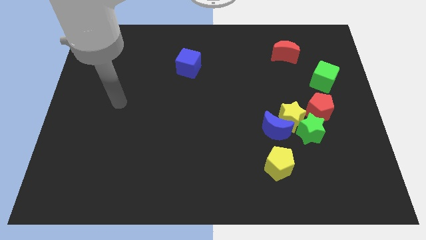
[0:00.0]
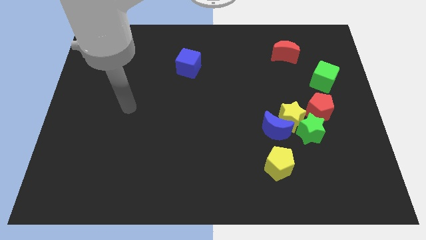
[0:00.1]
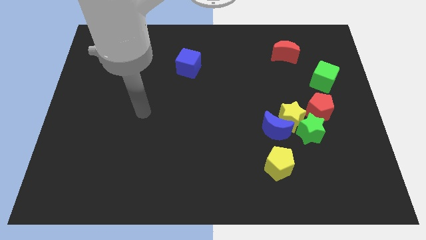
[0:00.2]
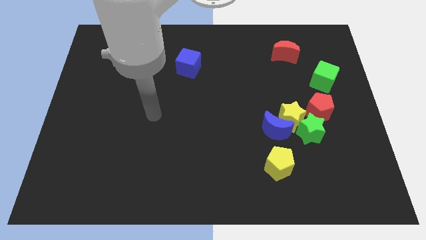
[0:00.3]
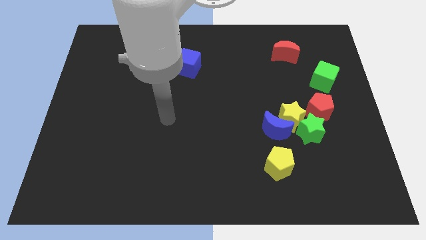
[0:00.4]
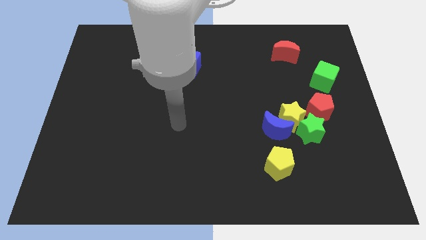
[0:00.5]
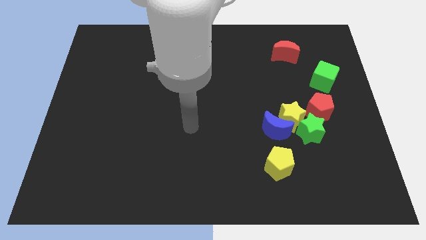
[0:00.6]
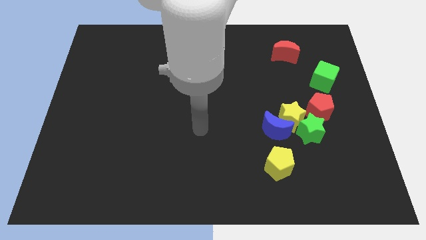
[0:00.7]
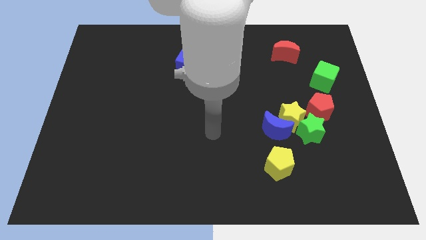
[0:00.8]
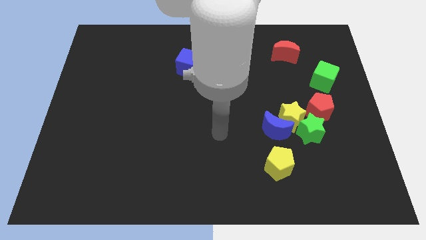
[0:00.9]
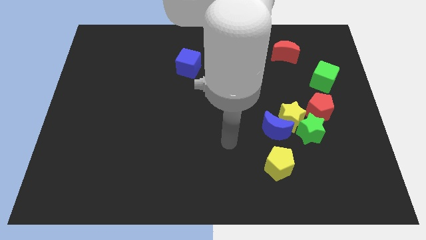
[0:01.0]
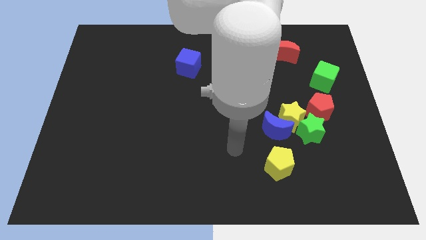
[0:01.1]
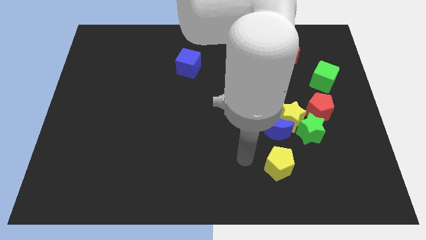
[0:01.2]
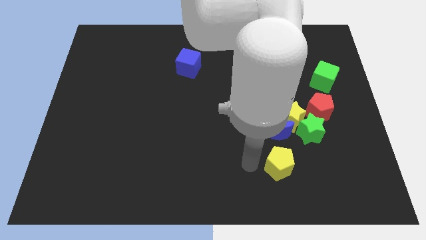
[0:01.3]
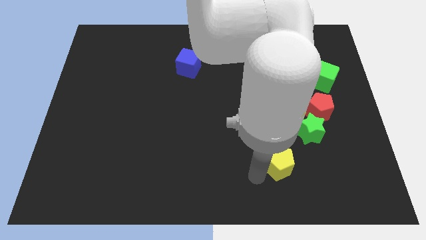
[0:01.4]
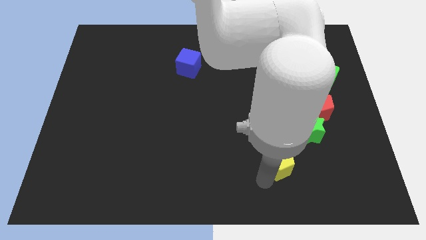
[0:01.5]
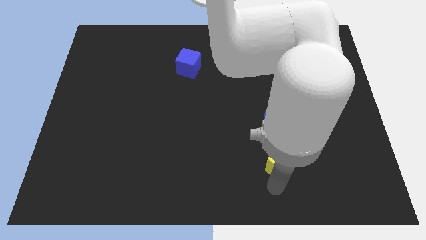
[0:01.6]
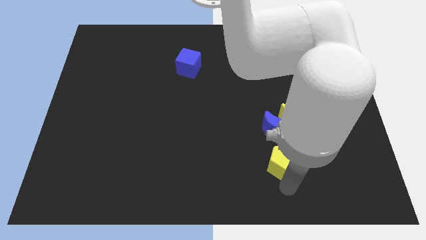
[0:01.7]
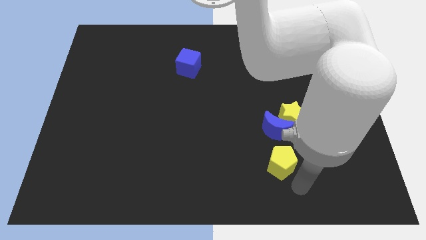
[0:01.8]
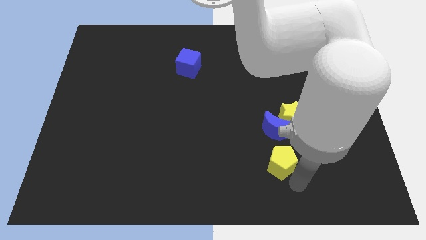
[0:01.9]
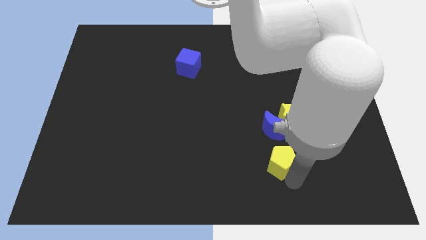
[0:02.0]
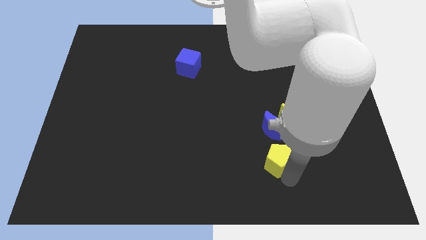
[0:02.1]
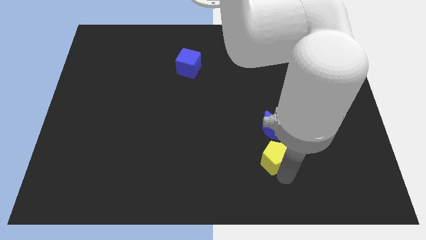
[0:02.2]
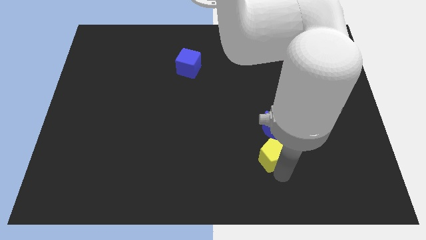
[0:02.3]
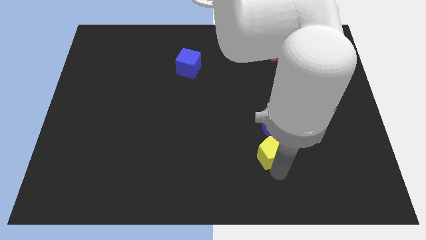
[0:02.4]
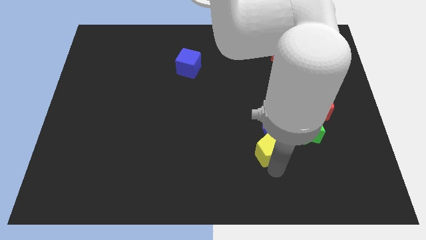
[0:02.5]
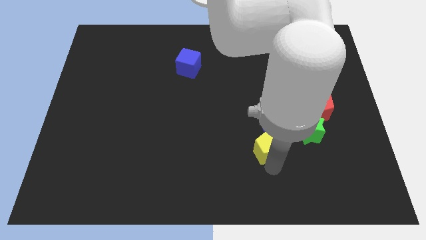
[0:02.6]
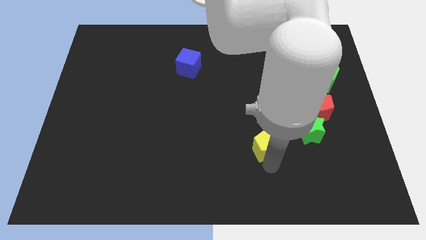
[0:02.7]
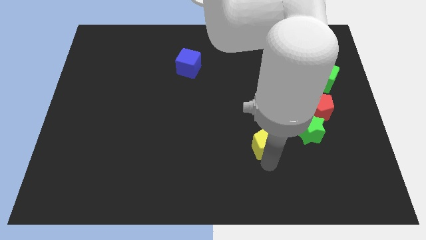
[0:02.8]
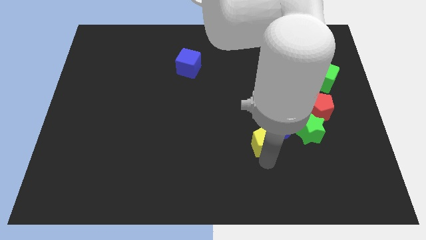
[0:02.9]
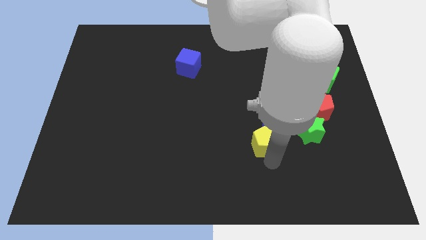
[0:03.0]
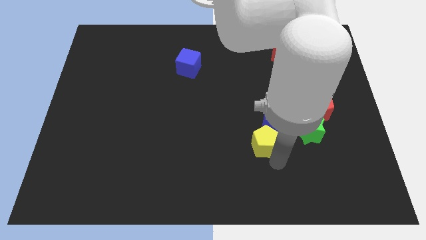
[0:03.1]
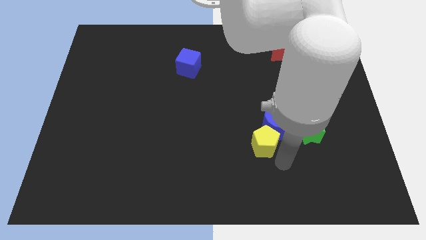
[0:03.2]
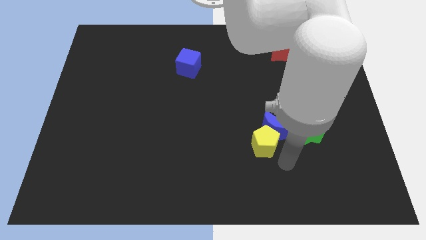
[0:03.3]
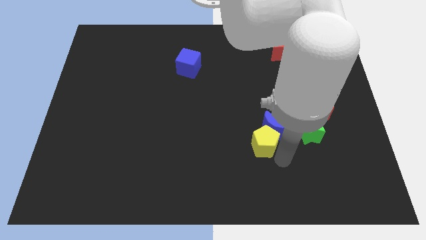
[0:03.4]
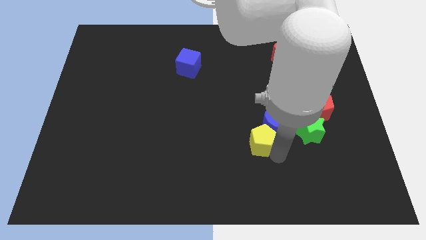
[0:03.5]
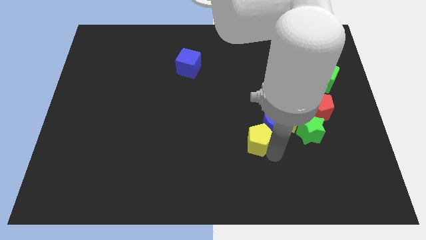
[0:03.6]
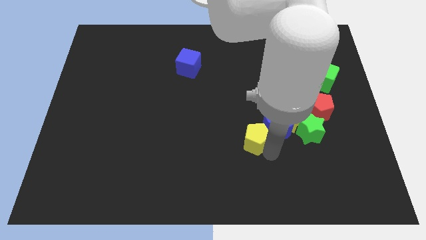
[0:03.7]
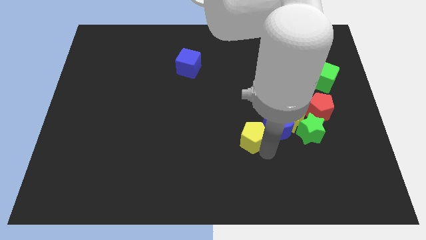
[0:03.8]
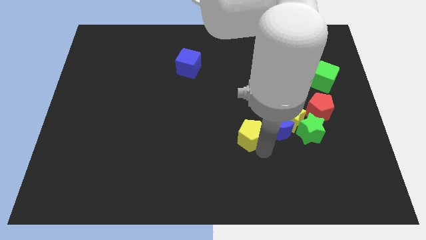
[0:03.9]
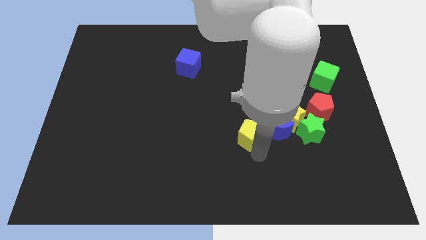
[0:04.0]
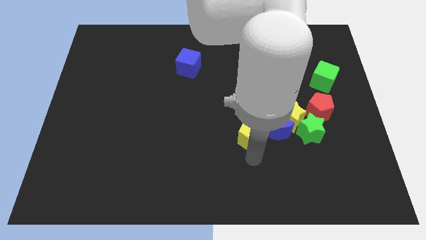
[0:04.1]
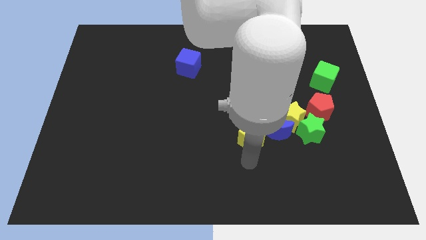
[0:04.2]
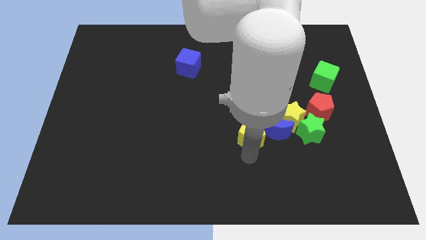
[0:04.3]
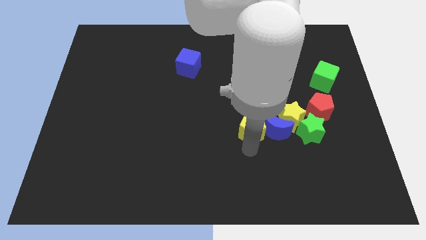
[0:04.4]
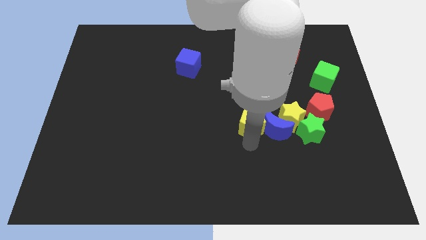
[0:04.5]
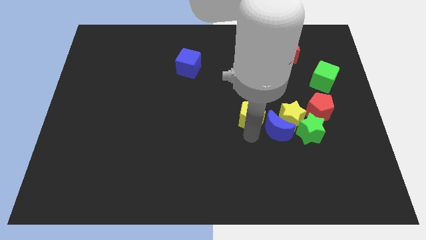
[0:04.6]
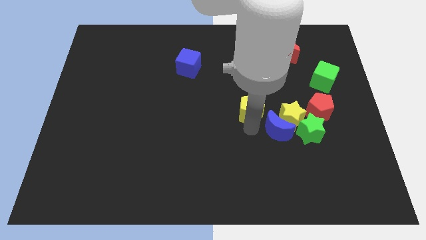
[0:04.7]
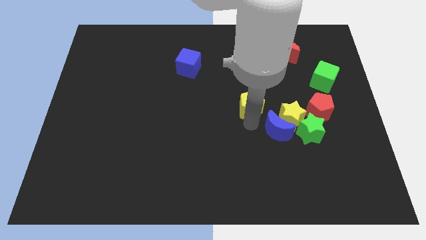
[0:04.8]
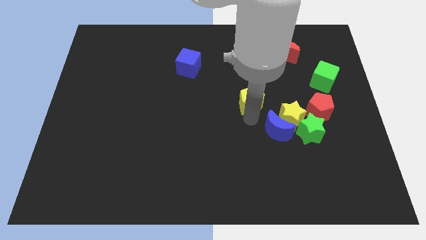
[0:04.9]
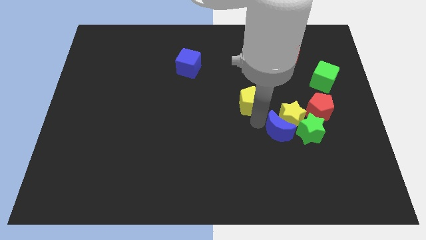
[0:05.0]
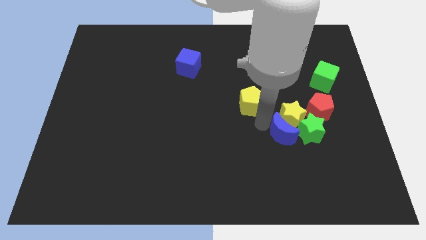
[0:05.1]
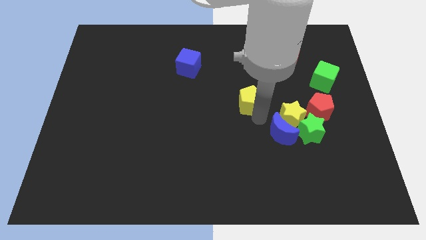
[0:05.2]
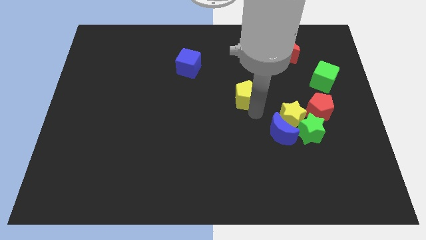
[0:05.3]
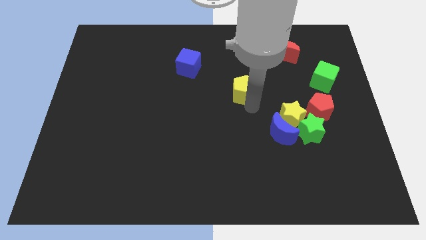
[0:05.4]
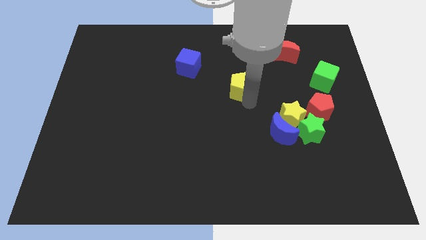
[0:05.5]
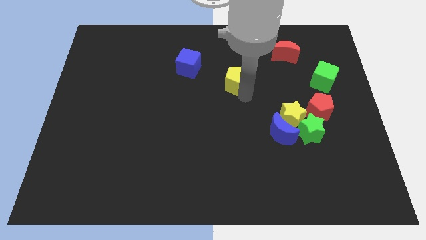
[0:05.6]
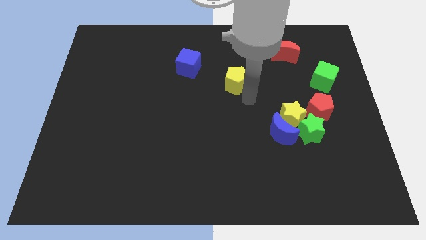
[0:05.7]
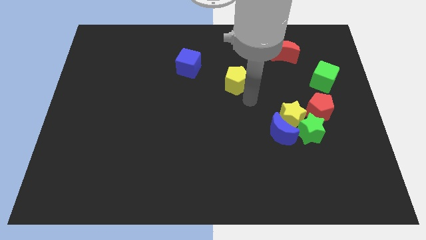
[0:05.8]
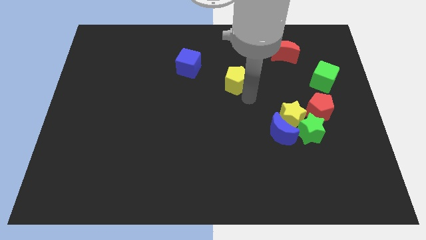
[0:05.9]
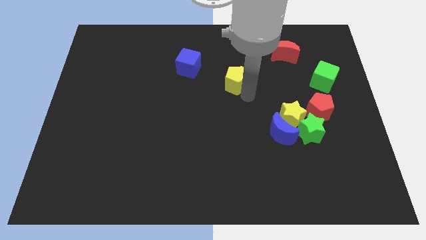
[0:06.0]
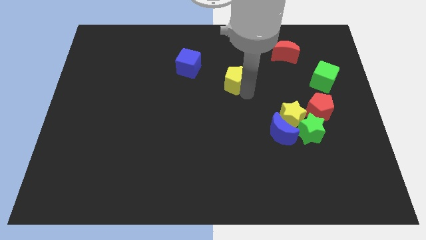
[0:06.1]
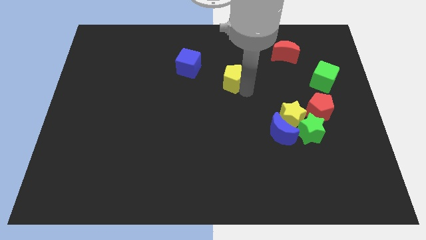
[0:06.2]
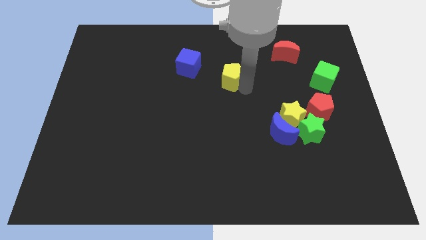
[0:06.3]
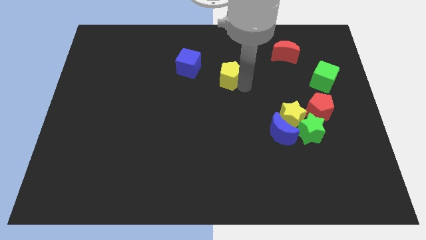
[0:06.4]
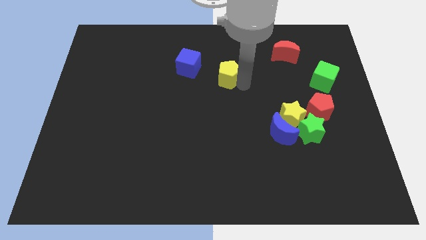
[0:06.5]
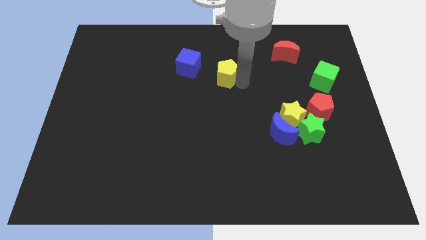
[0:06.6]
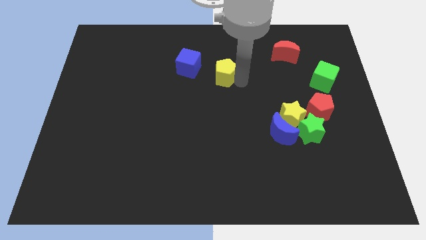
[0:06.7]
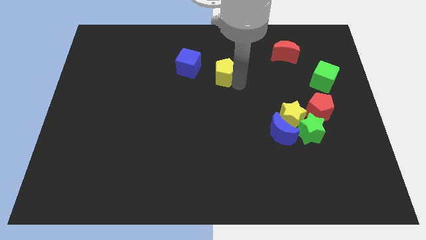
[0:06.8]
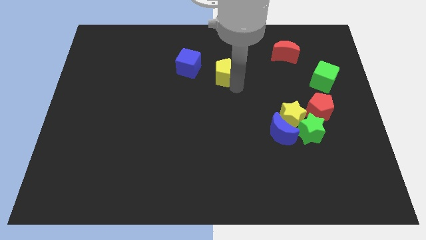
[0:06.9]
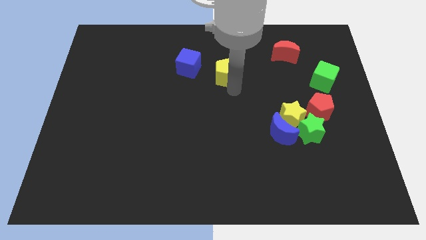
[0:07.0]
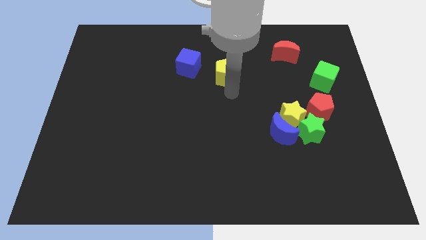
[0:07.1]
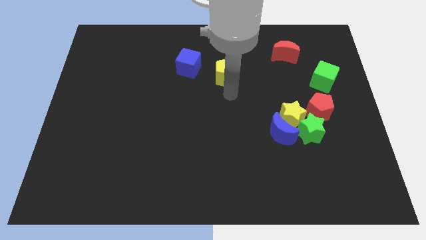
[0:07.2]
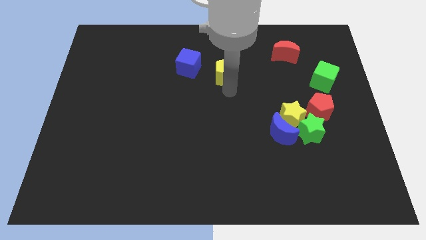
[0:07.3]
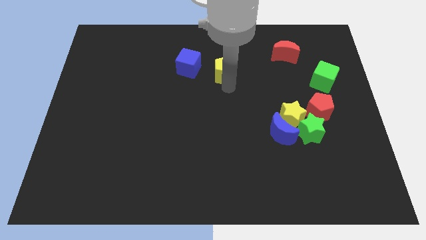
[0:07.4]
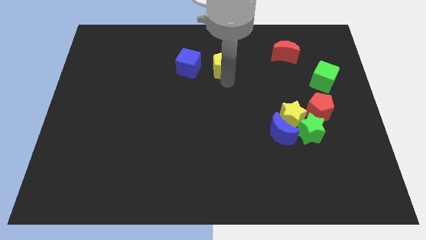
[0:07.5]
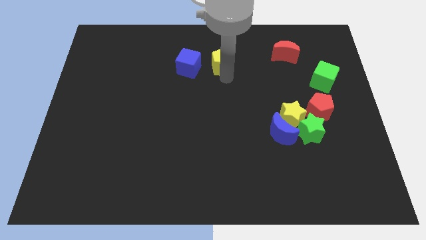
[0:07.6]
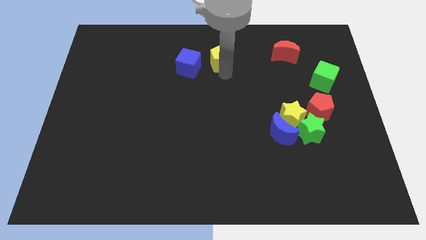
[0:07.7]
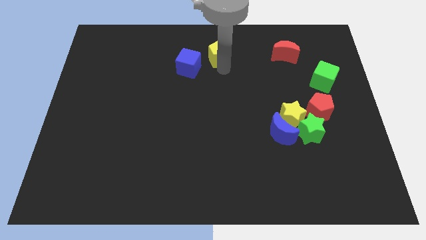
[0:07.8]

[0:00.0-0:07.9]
push the yellow pentagon to the towards your base
